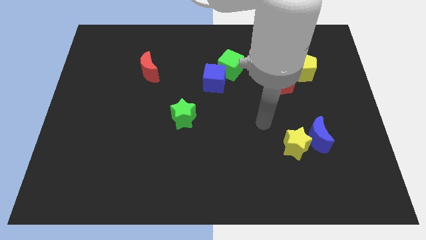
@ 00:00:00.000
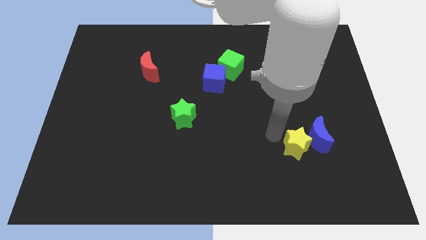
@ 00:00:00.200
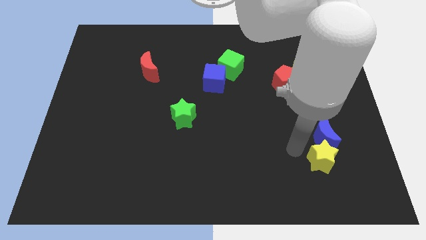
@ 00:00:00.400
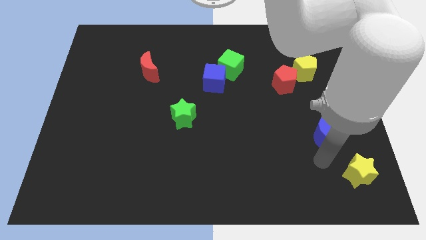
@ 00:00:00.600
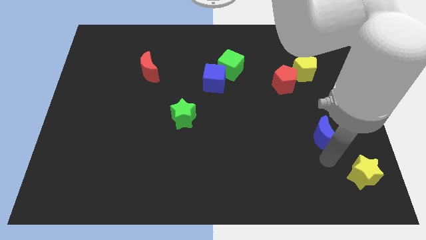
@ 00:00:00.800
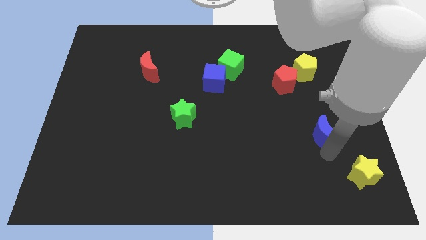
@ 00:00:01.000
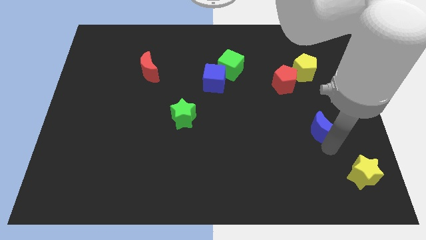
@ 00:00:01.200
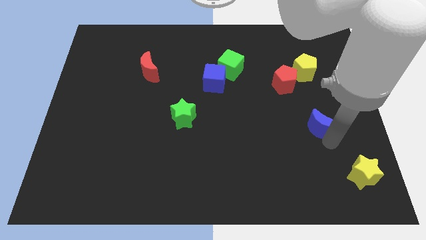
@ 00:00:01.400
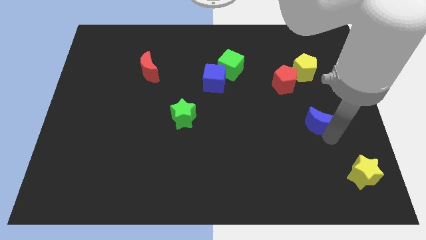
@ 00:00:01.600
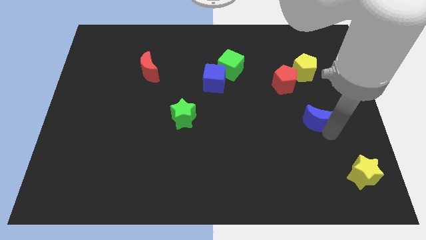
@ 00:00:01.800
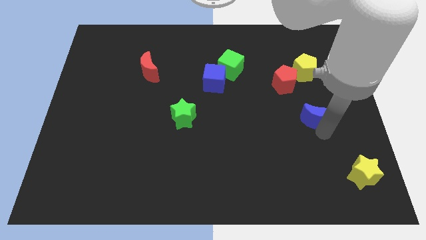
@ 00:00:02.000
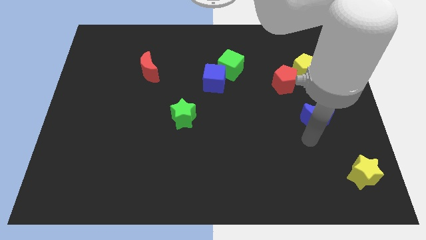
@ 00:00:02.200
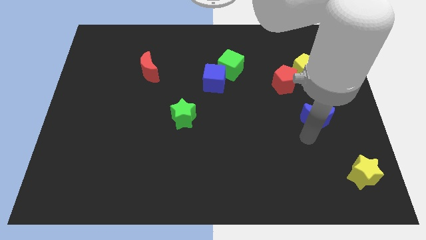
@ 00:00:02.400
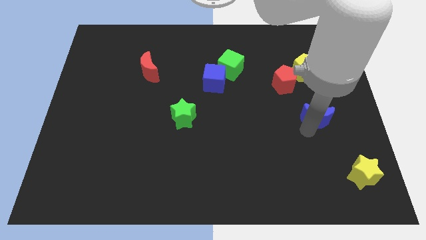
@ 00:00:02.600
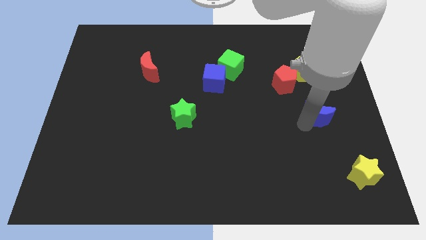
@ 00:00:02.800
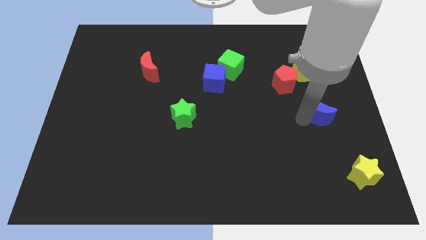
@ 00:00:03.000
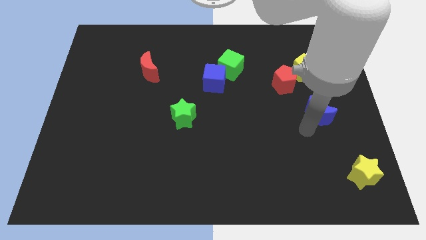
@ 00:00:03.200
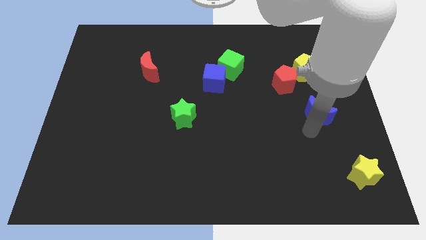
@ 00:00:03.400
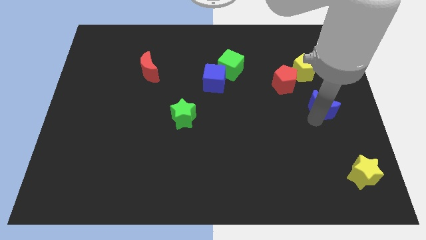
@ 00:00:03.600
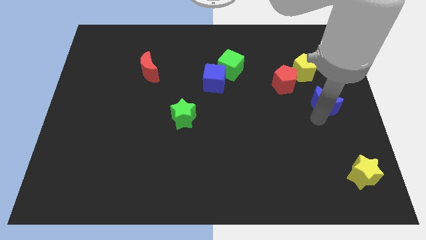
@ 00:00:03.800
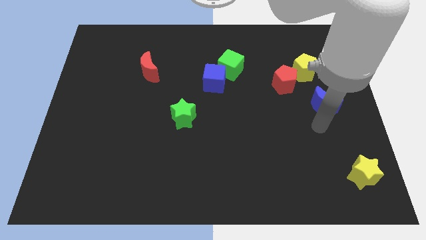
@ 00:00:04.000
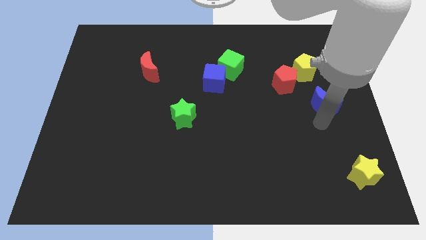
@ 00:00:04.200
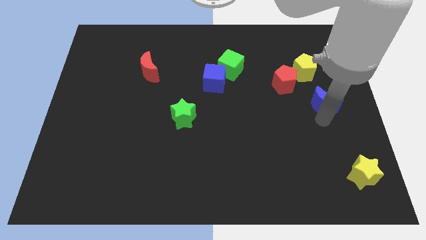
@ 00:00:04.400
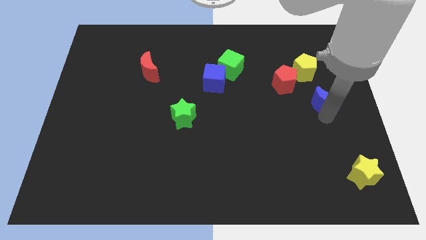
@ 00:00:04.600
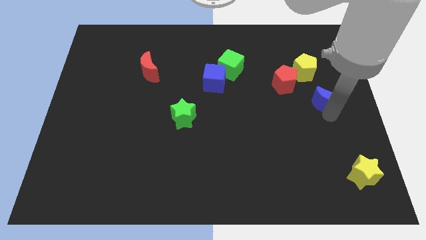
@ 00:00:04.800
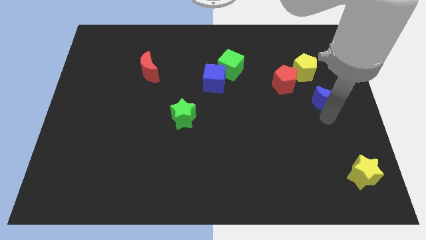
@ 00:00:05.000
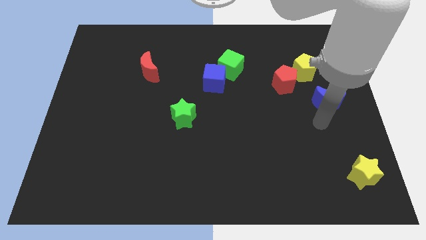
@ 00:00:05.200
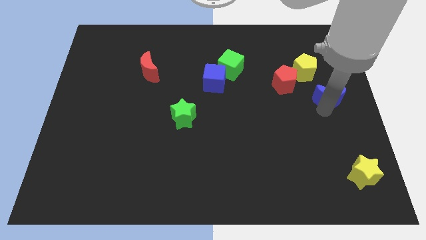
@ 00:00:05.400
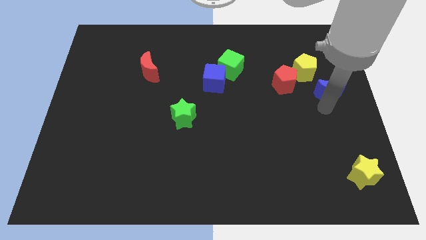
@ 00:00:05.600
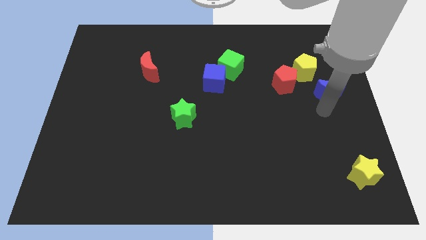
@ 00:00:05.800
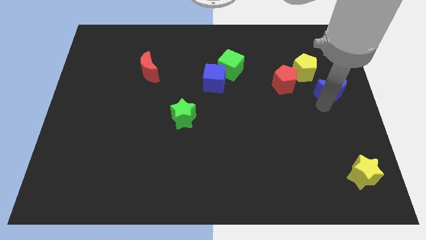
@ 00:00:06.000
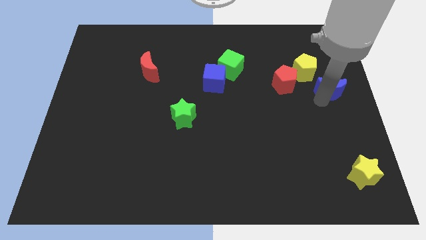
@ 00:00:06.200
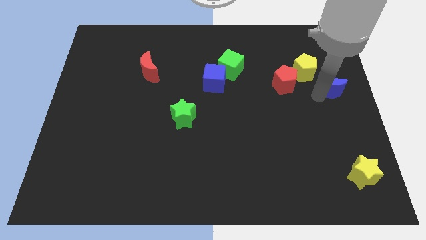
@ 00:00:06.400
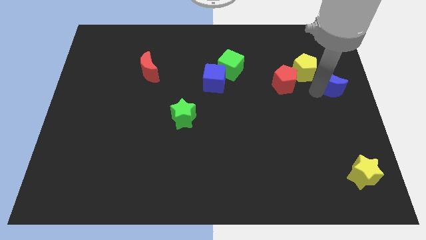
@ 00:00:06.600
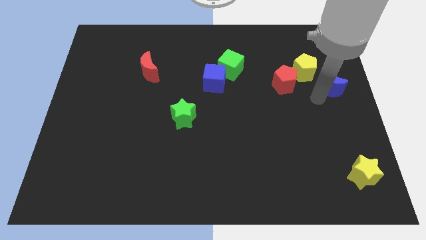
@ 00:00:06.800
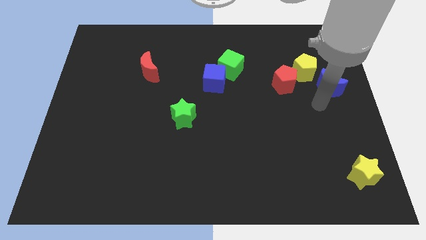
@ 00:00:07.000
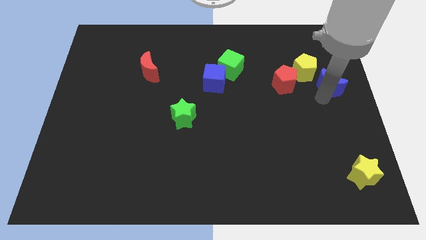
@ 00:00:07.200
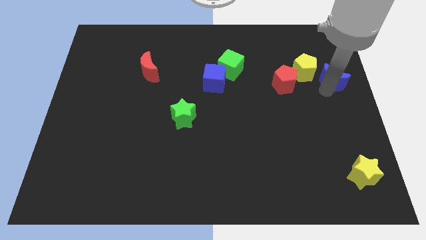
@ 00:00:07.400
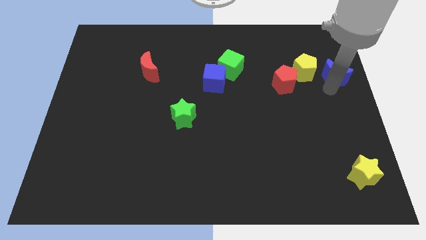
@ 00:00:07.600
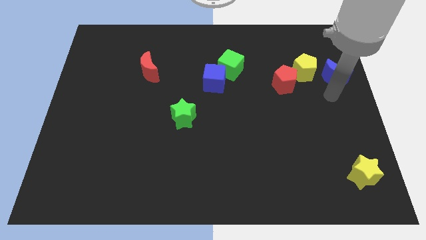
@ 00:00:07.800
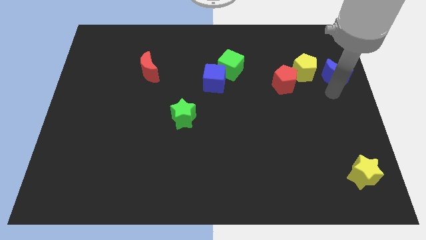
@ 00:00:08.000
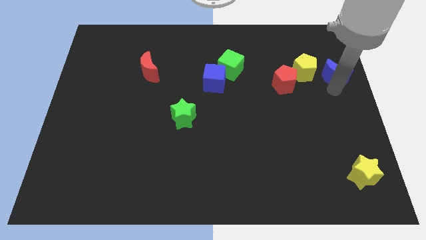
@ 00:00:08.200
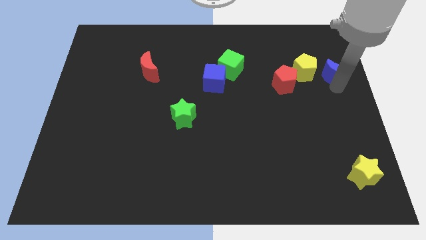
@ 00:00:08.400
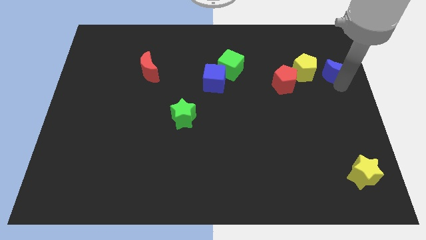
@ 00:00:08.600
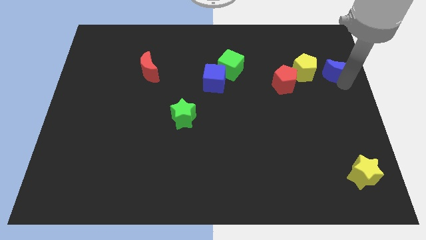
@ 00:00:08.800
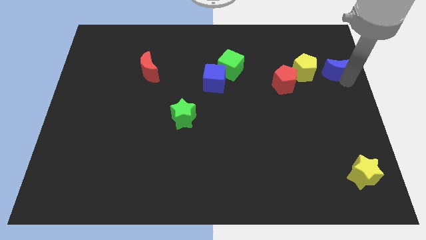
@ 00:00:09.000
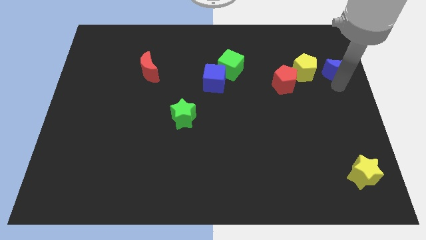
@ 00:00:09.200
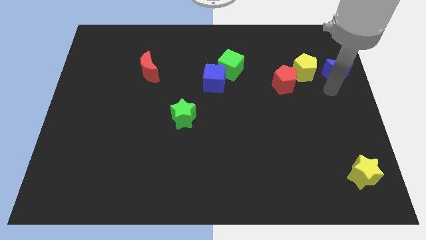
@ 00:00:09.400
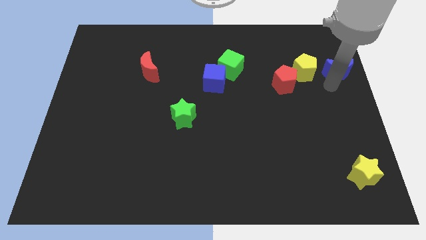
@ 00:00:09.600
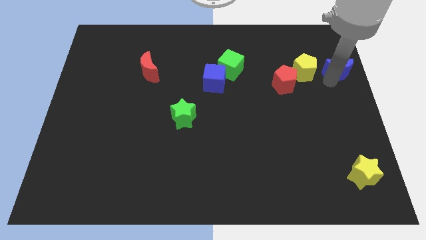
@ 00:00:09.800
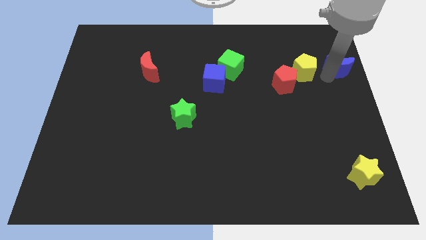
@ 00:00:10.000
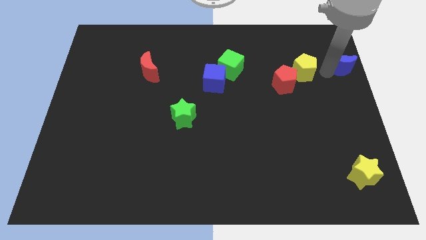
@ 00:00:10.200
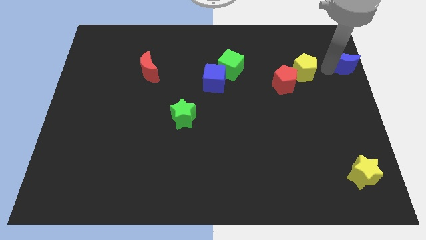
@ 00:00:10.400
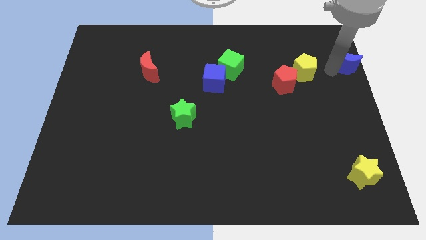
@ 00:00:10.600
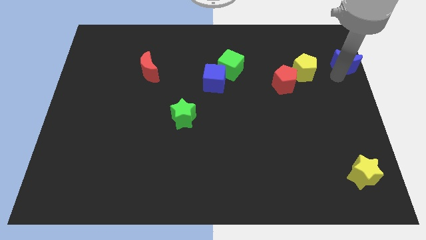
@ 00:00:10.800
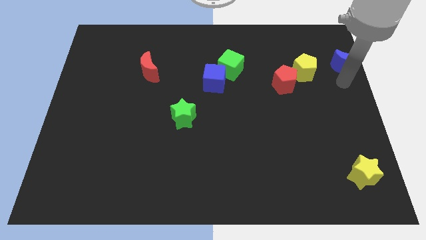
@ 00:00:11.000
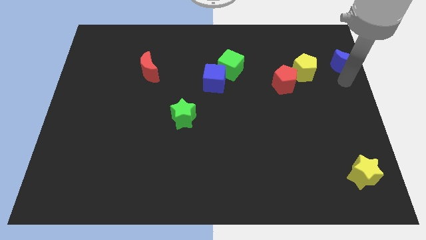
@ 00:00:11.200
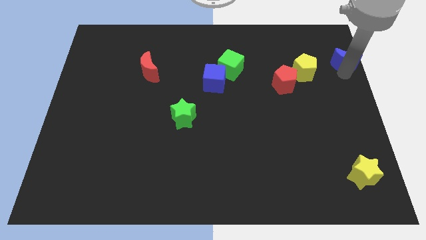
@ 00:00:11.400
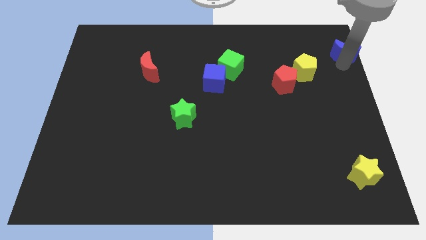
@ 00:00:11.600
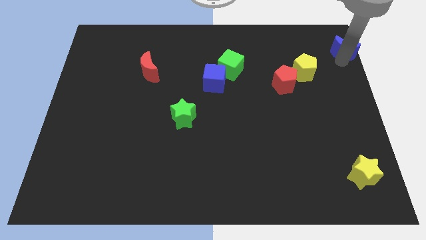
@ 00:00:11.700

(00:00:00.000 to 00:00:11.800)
put the blue moon to the top right corner
